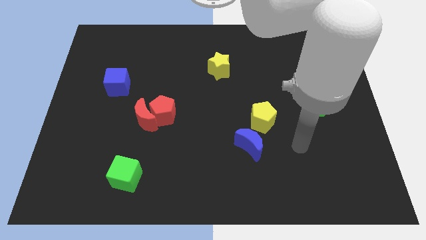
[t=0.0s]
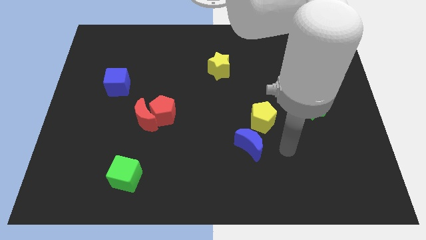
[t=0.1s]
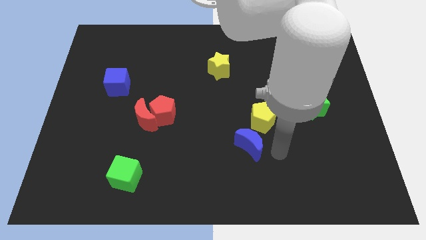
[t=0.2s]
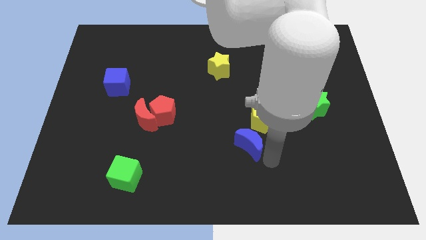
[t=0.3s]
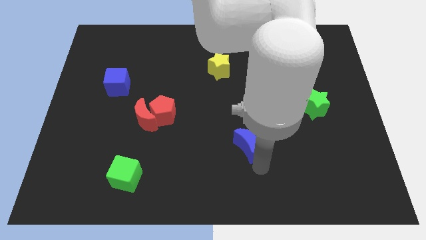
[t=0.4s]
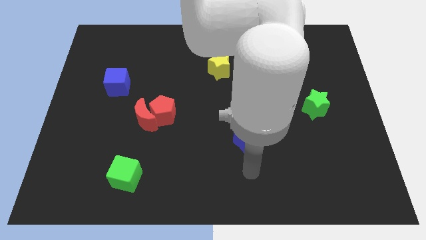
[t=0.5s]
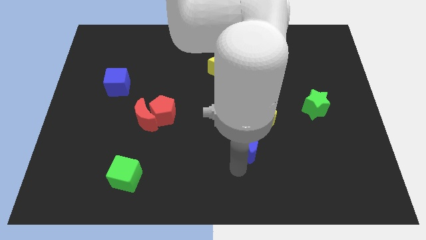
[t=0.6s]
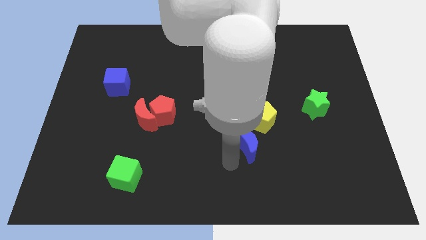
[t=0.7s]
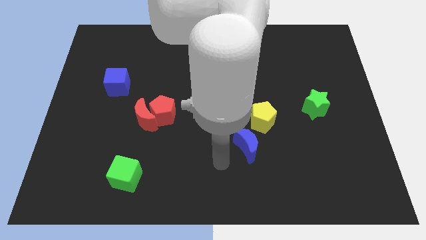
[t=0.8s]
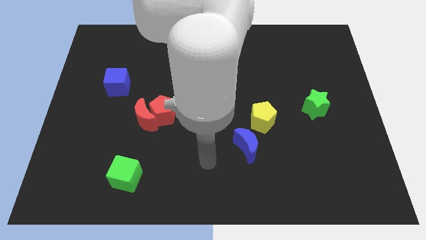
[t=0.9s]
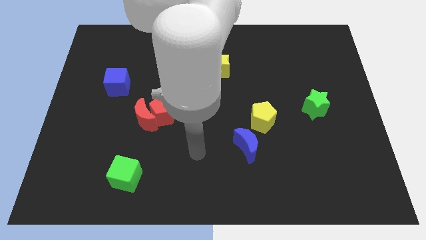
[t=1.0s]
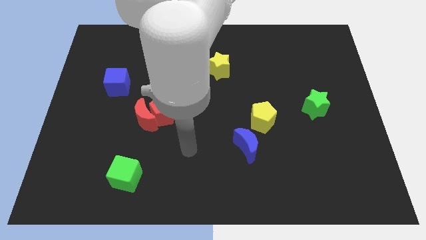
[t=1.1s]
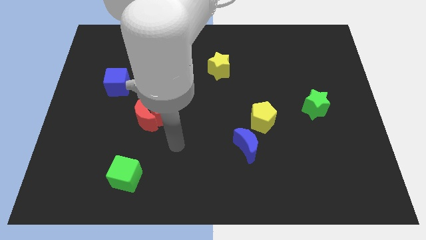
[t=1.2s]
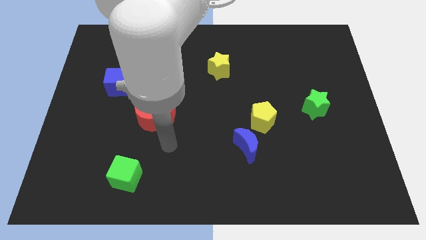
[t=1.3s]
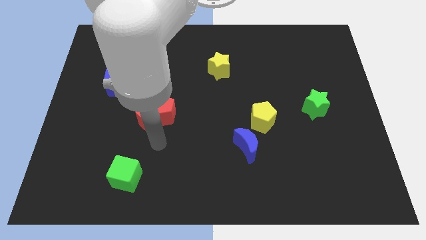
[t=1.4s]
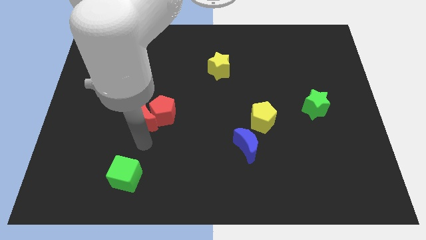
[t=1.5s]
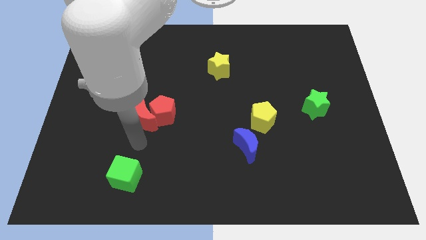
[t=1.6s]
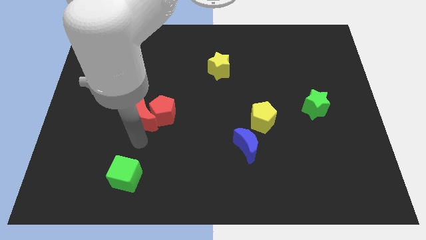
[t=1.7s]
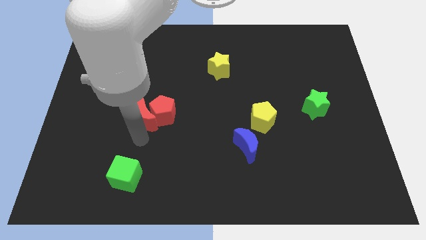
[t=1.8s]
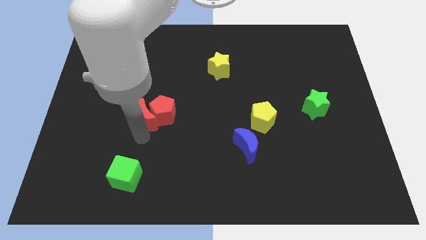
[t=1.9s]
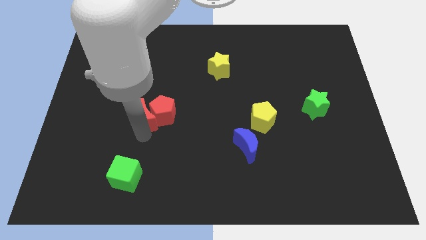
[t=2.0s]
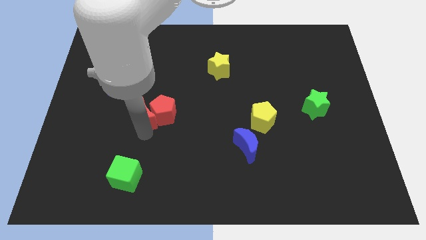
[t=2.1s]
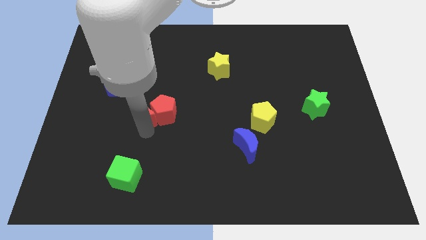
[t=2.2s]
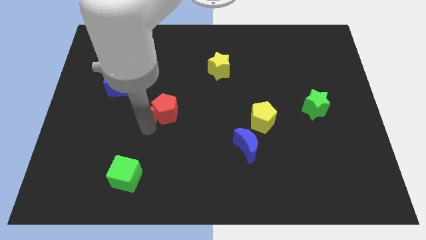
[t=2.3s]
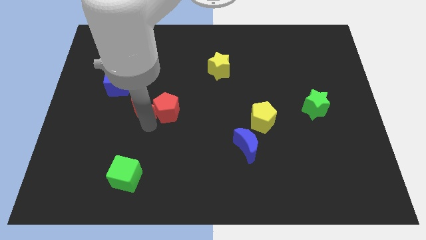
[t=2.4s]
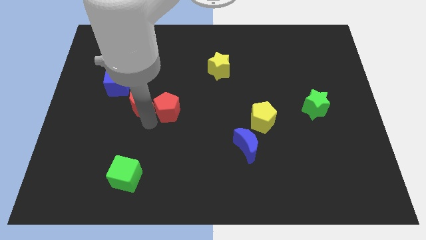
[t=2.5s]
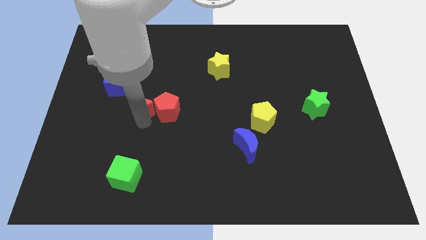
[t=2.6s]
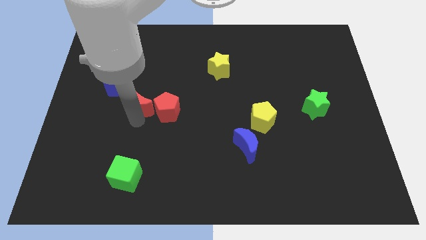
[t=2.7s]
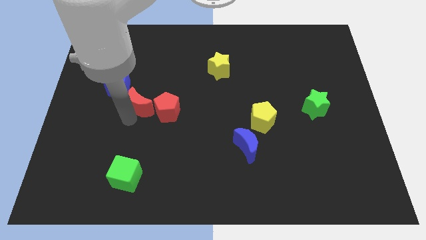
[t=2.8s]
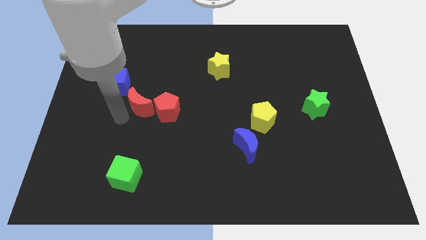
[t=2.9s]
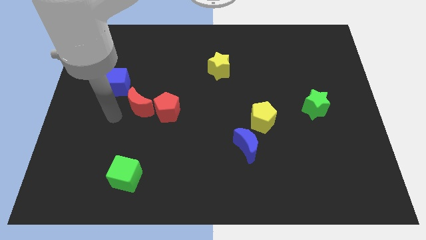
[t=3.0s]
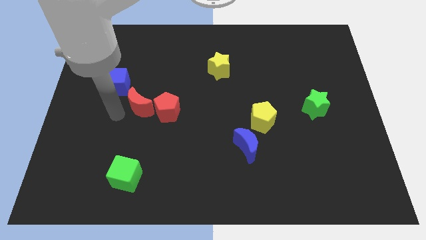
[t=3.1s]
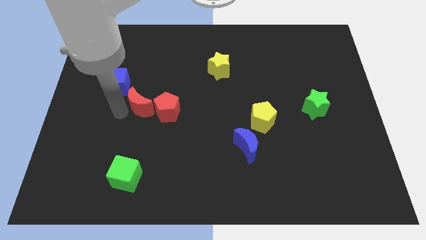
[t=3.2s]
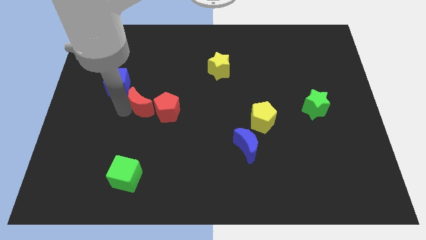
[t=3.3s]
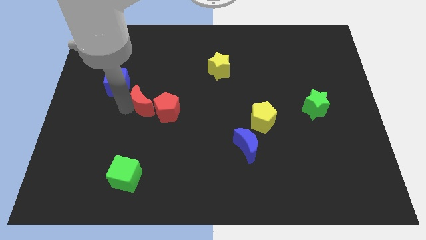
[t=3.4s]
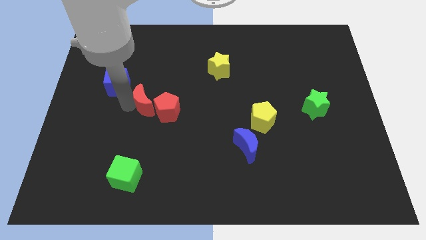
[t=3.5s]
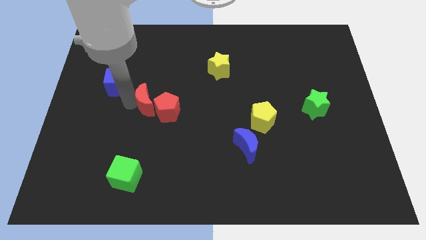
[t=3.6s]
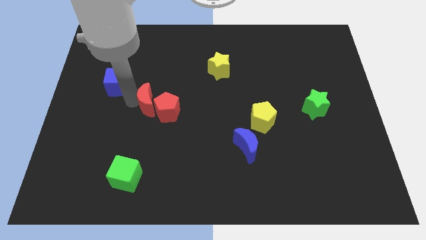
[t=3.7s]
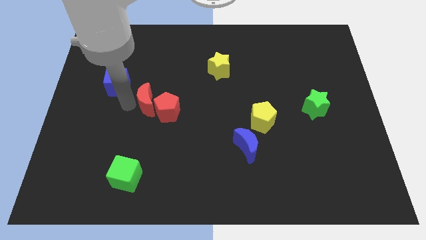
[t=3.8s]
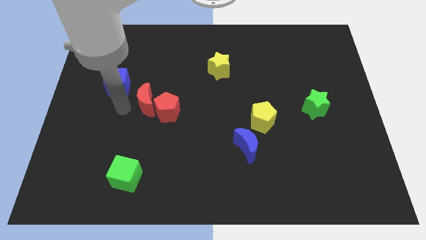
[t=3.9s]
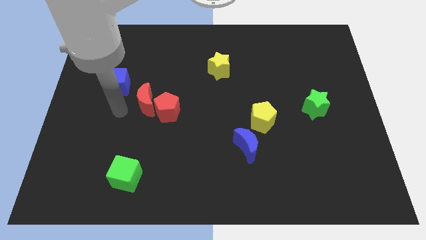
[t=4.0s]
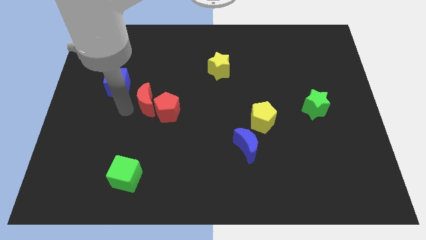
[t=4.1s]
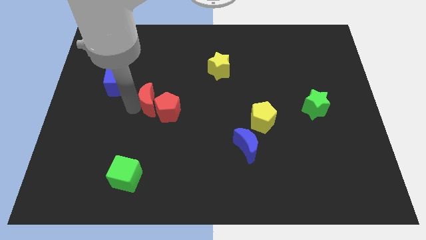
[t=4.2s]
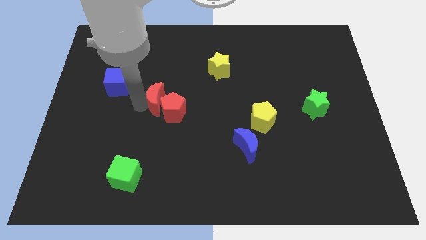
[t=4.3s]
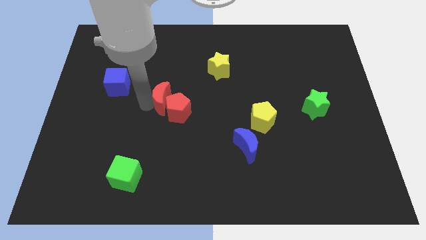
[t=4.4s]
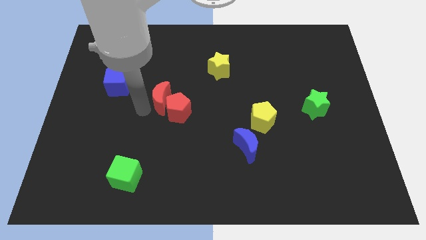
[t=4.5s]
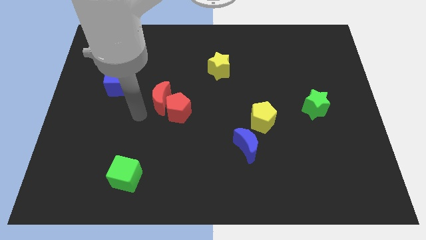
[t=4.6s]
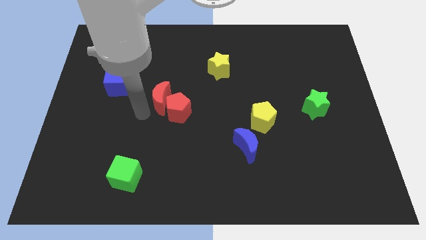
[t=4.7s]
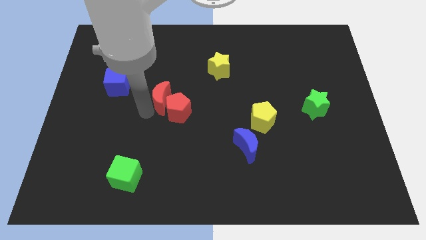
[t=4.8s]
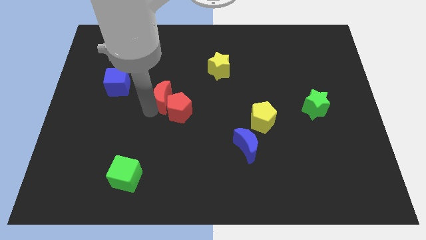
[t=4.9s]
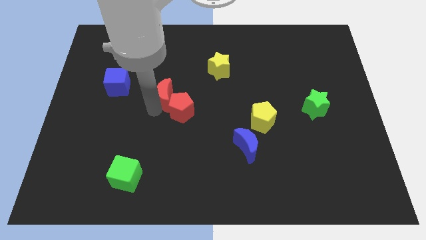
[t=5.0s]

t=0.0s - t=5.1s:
push the red moon a little bit up and to the right diagonally

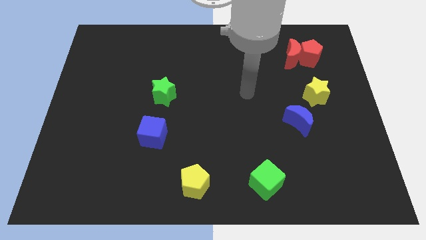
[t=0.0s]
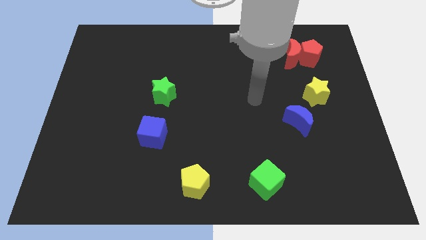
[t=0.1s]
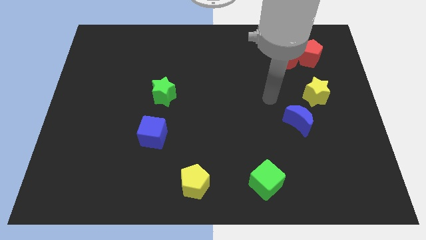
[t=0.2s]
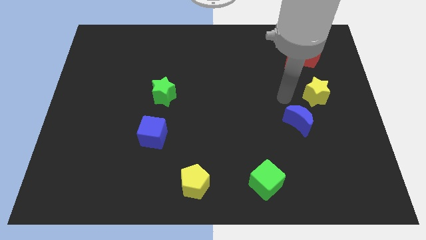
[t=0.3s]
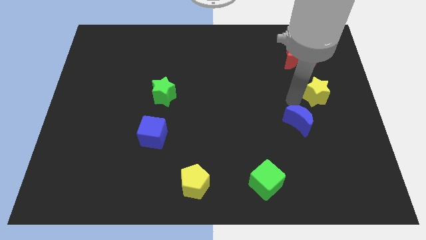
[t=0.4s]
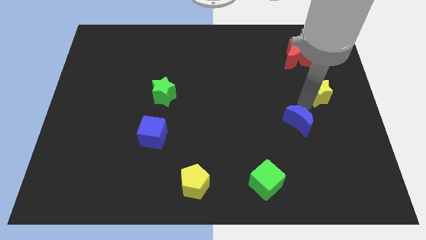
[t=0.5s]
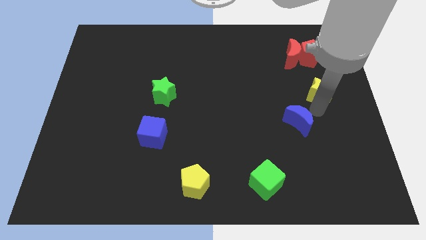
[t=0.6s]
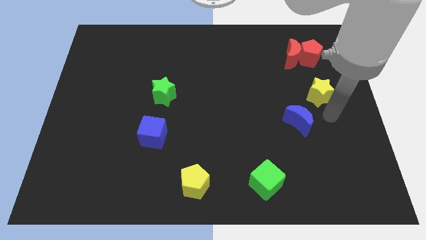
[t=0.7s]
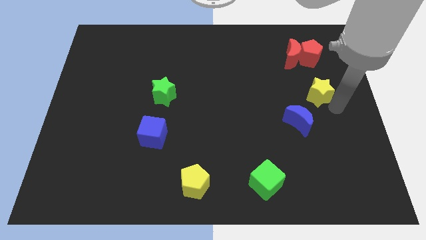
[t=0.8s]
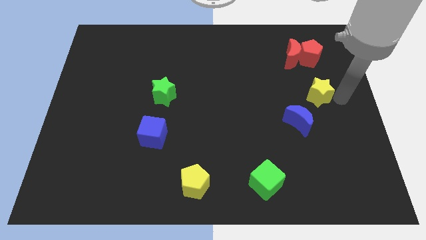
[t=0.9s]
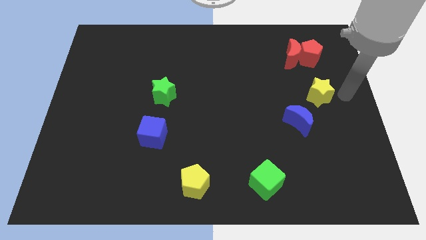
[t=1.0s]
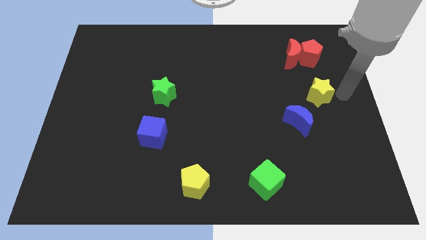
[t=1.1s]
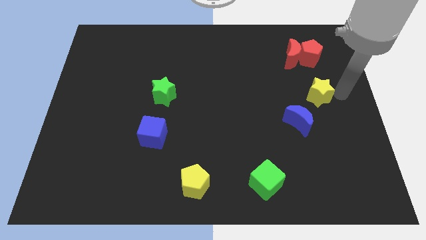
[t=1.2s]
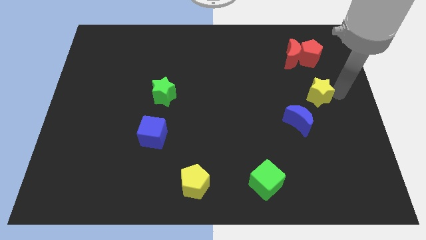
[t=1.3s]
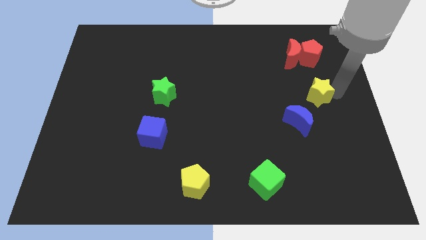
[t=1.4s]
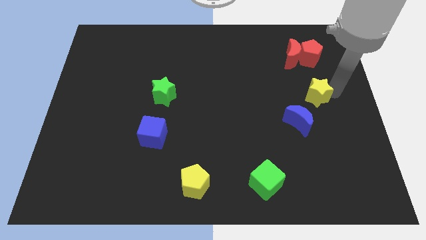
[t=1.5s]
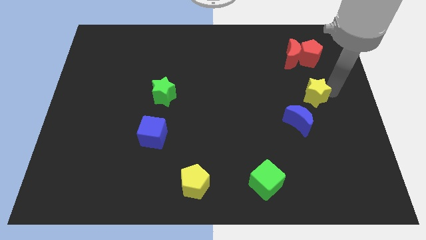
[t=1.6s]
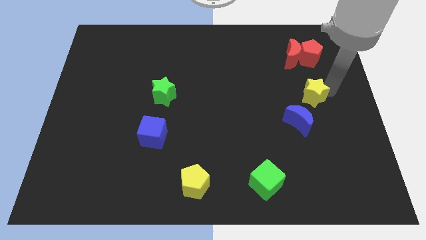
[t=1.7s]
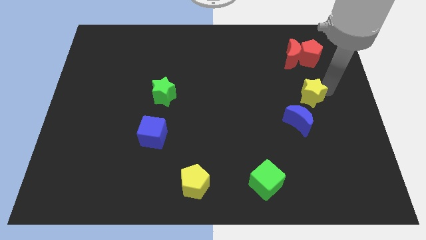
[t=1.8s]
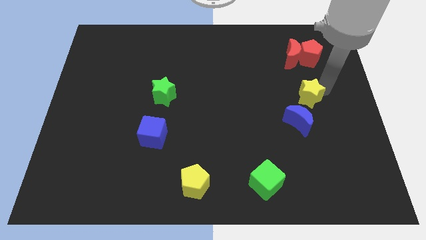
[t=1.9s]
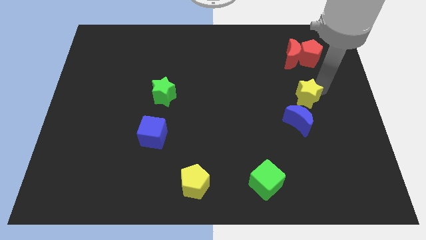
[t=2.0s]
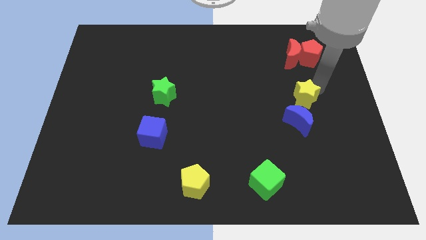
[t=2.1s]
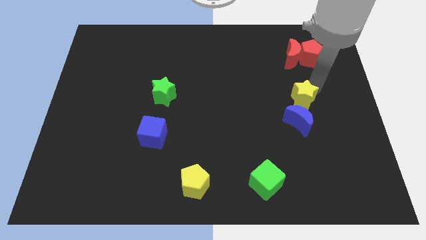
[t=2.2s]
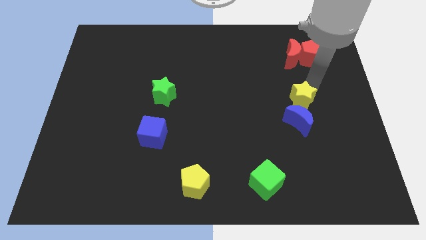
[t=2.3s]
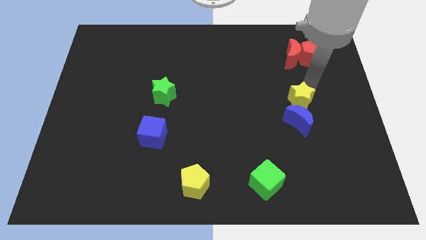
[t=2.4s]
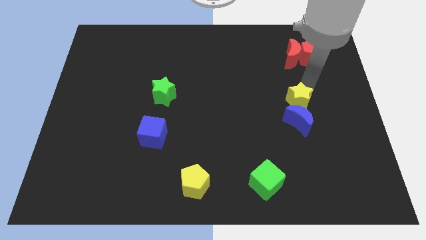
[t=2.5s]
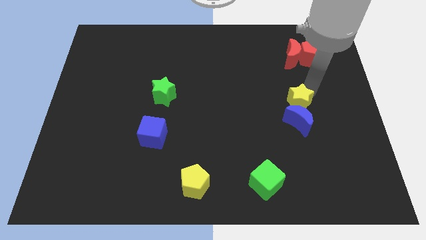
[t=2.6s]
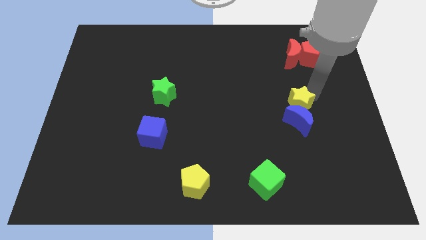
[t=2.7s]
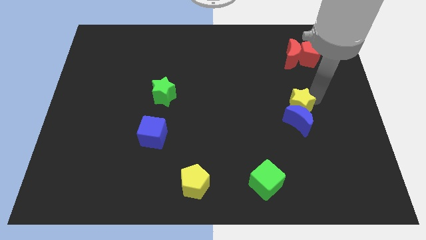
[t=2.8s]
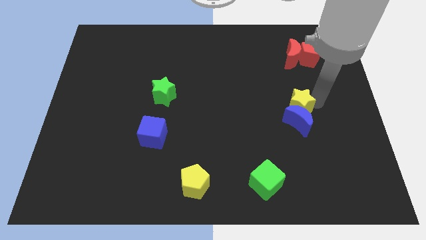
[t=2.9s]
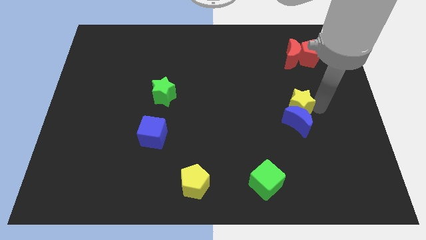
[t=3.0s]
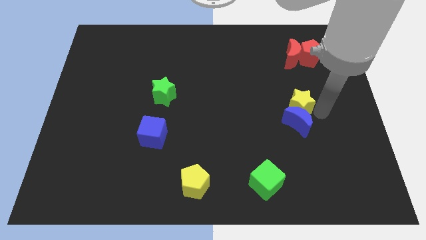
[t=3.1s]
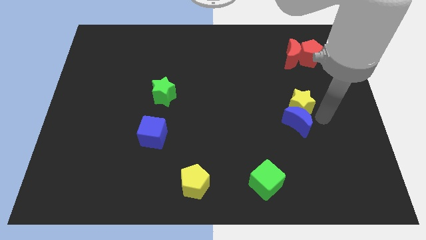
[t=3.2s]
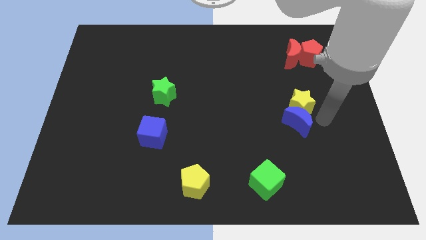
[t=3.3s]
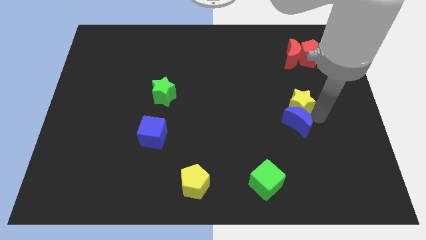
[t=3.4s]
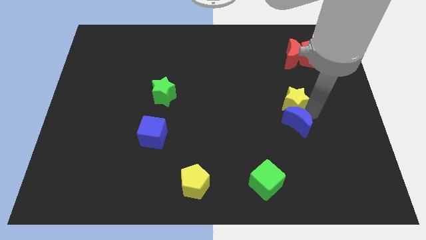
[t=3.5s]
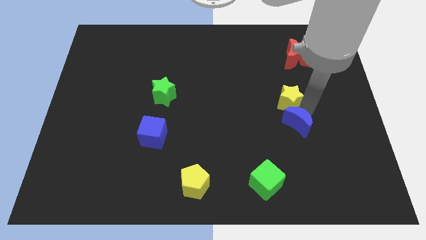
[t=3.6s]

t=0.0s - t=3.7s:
slide the yellow star somewhat left
